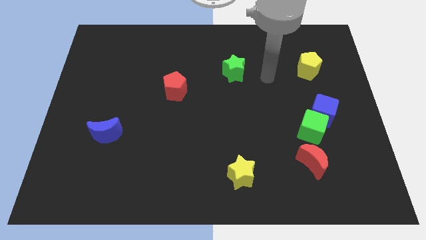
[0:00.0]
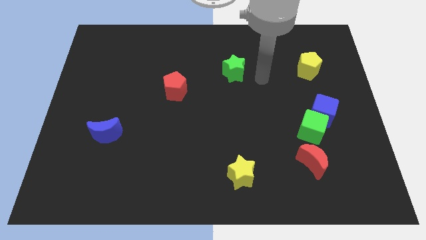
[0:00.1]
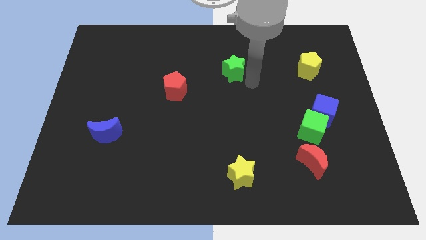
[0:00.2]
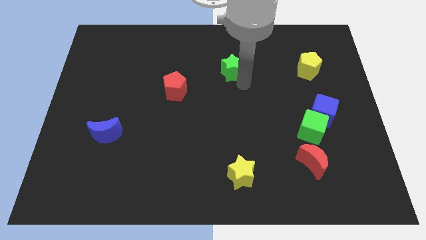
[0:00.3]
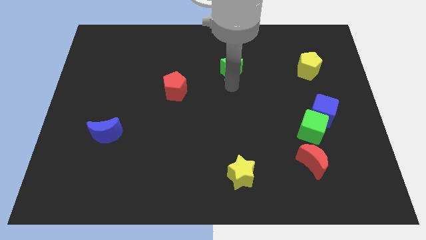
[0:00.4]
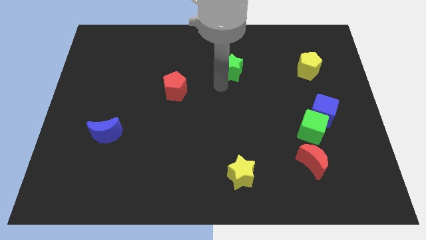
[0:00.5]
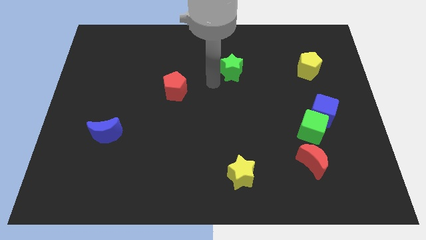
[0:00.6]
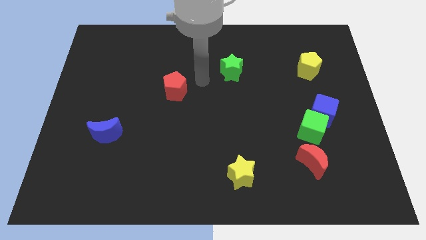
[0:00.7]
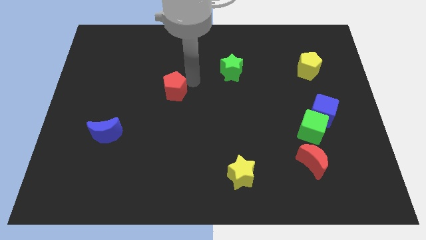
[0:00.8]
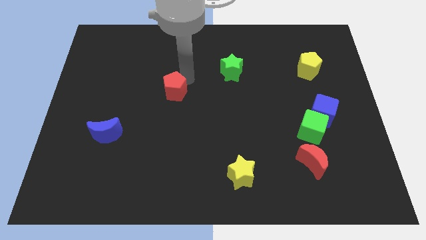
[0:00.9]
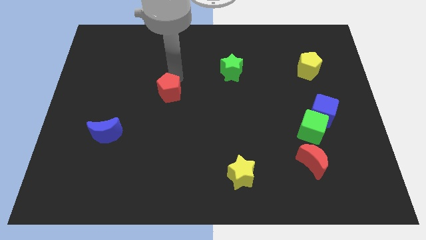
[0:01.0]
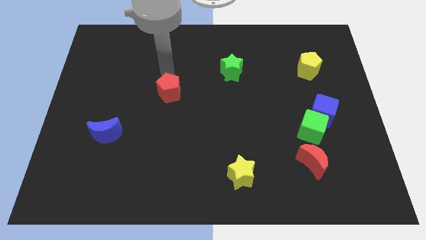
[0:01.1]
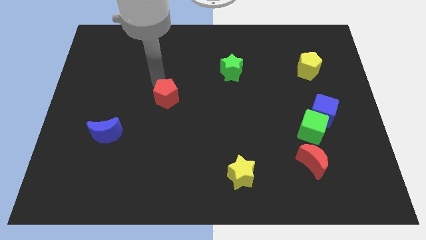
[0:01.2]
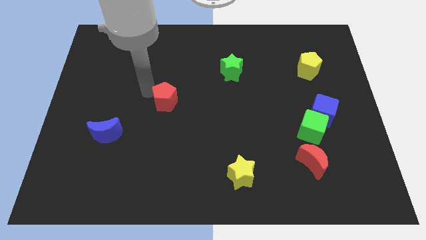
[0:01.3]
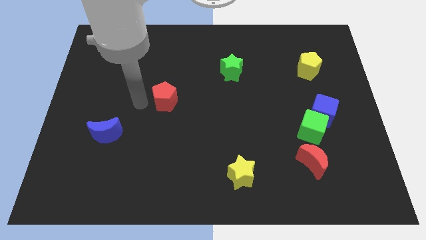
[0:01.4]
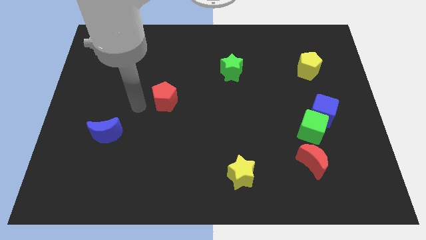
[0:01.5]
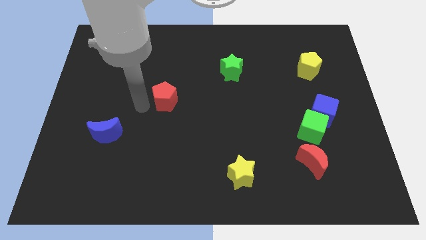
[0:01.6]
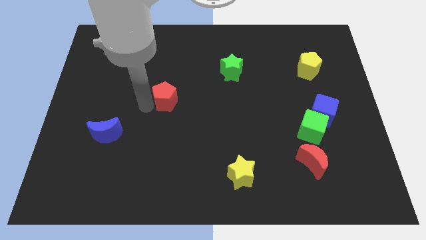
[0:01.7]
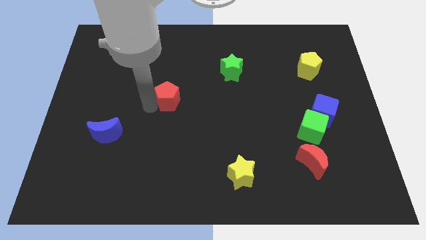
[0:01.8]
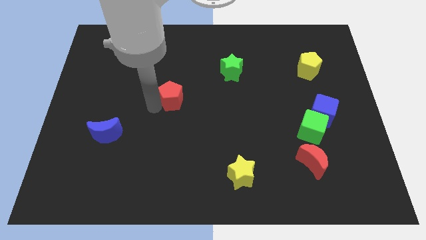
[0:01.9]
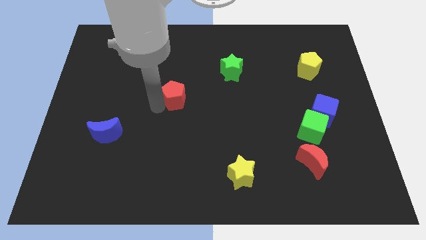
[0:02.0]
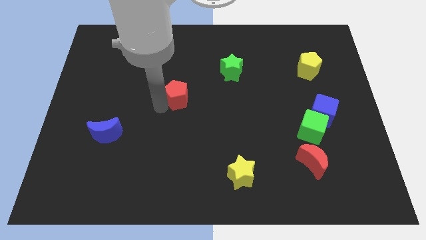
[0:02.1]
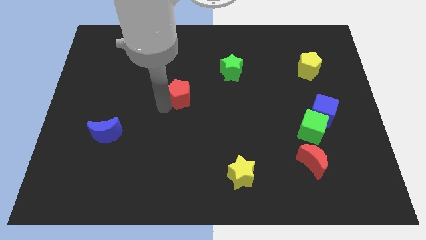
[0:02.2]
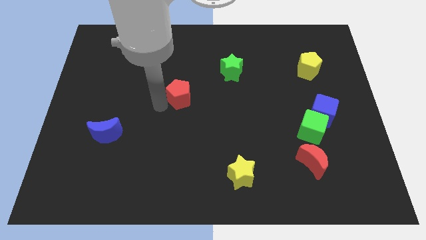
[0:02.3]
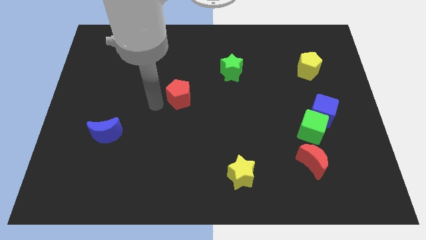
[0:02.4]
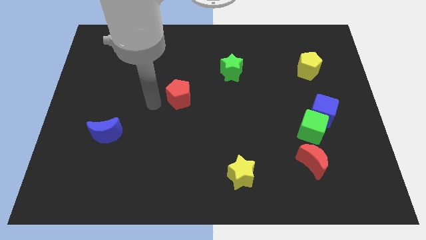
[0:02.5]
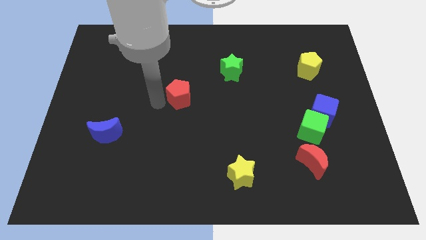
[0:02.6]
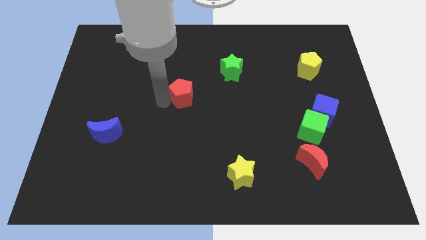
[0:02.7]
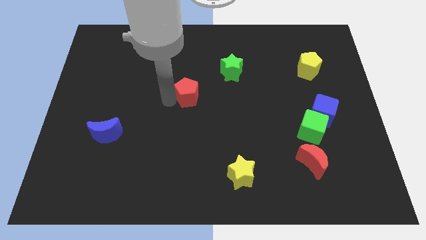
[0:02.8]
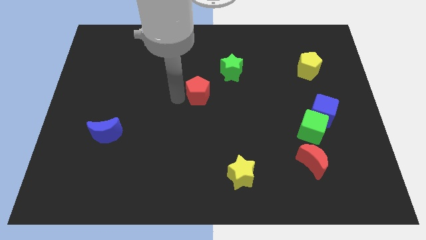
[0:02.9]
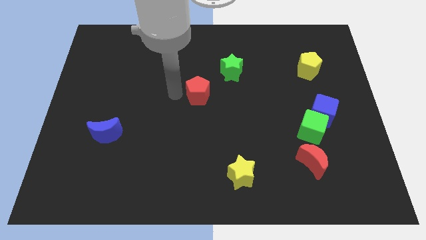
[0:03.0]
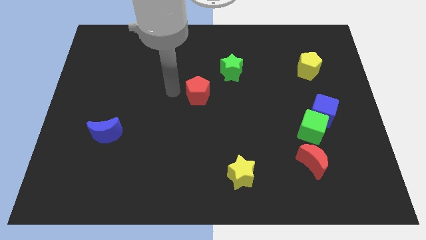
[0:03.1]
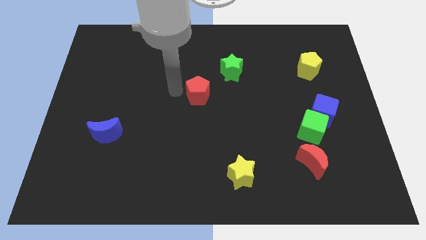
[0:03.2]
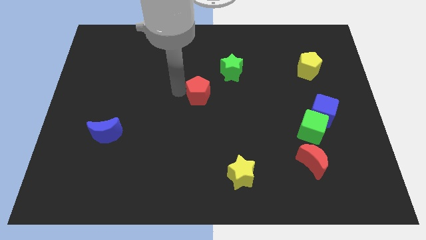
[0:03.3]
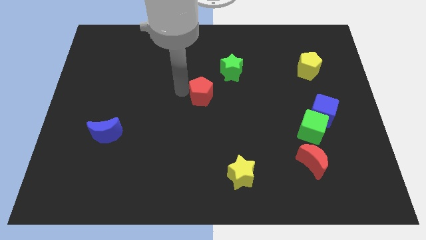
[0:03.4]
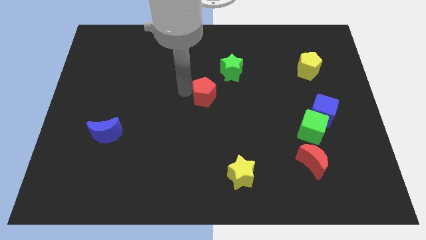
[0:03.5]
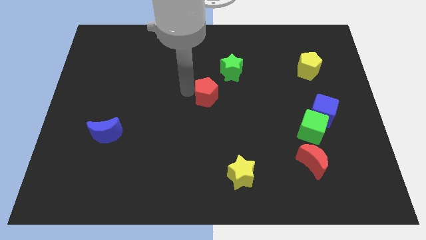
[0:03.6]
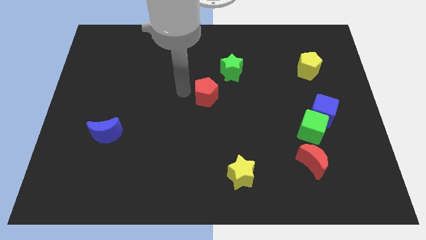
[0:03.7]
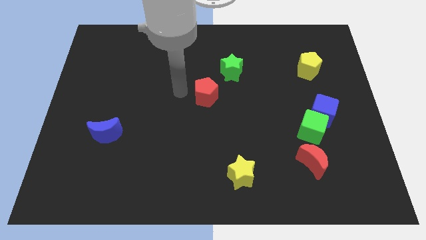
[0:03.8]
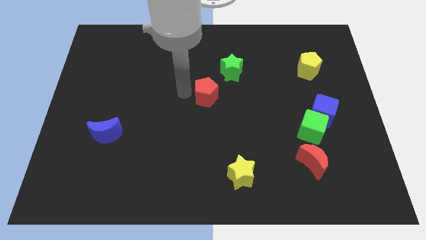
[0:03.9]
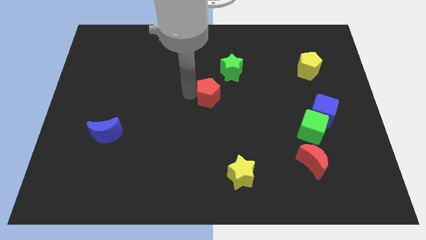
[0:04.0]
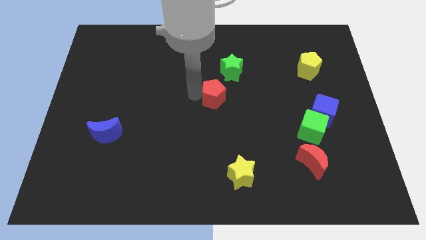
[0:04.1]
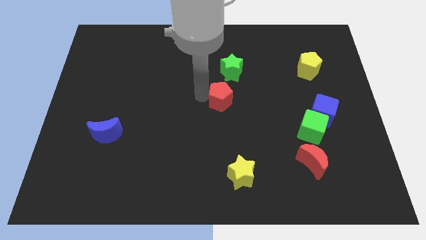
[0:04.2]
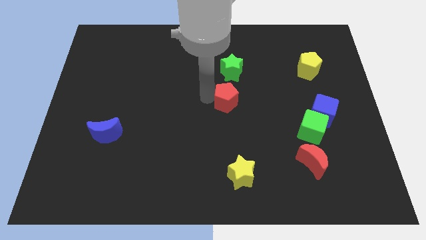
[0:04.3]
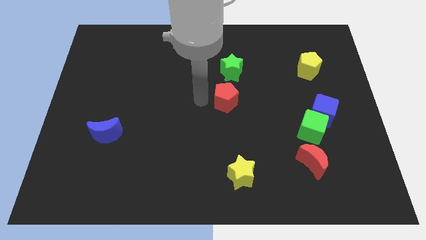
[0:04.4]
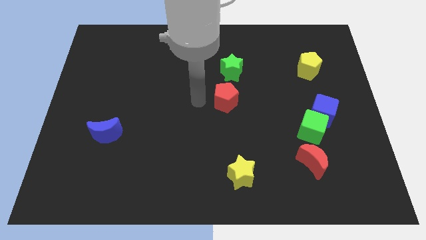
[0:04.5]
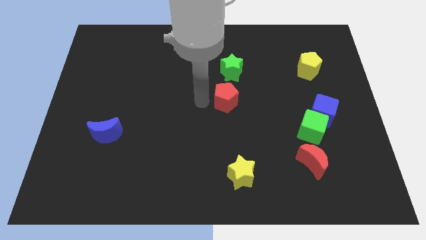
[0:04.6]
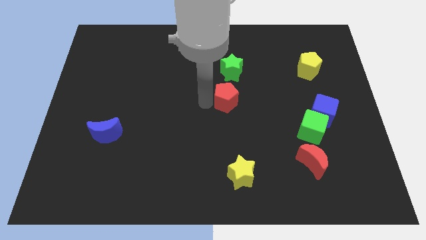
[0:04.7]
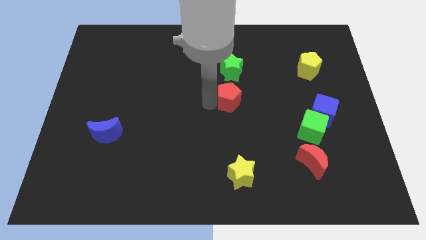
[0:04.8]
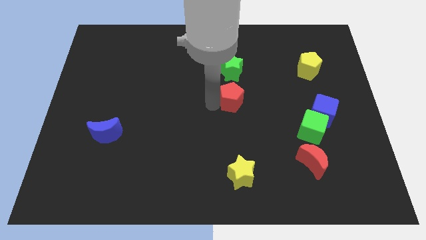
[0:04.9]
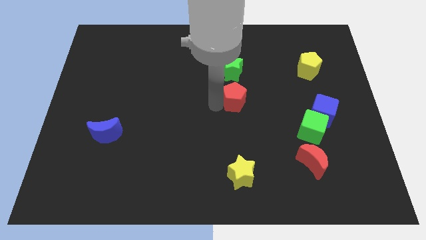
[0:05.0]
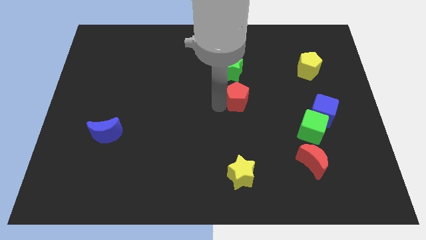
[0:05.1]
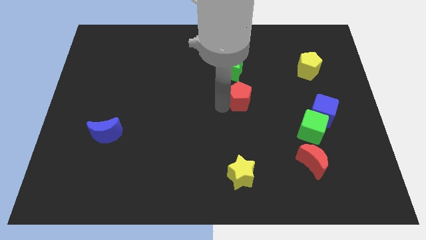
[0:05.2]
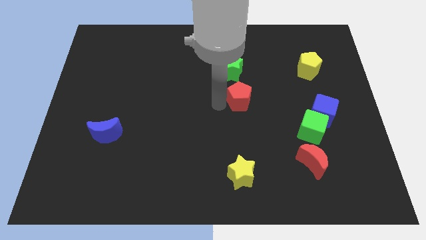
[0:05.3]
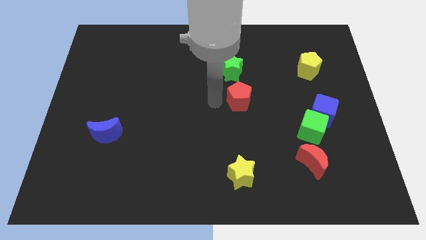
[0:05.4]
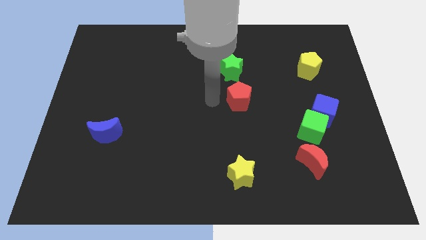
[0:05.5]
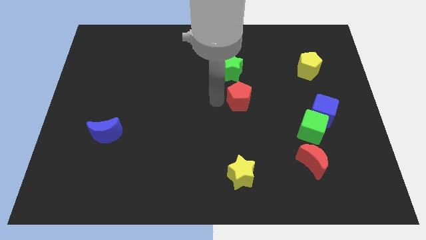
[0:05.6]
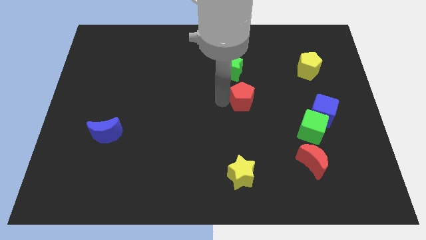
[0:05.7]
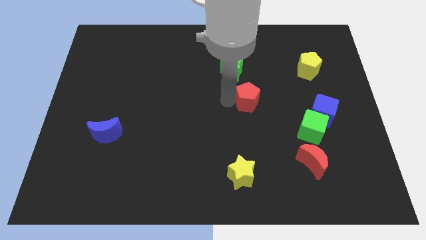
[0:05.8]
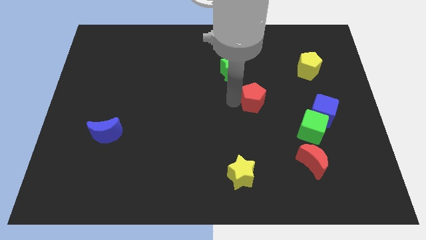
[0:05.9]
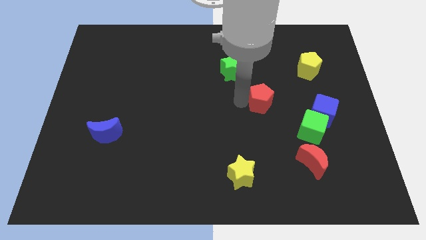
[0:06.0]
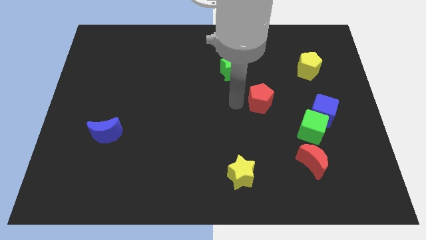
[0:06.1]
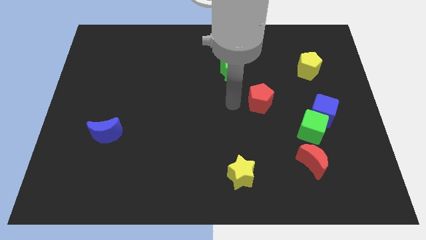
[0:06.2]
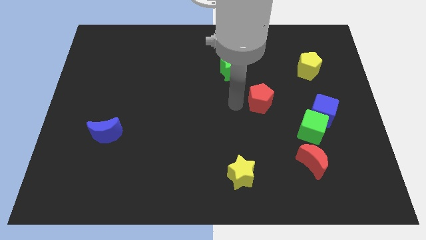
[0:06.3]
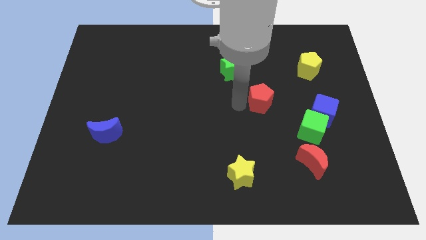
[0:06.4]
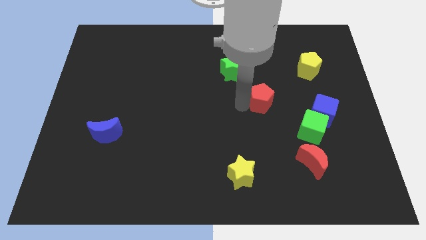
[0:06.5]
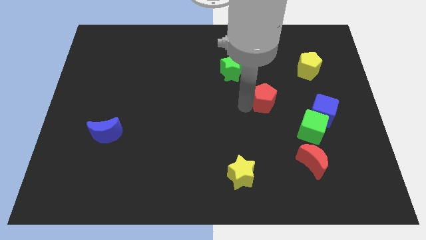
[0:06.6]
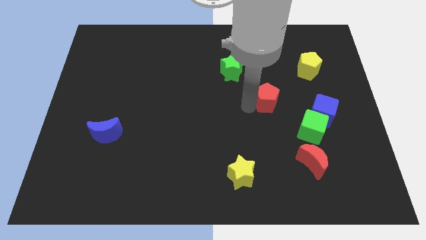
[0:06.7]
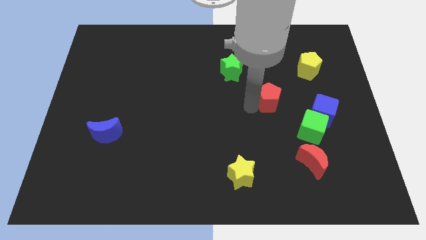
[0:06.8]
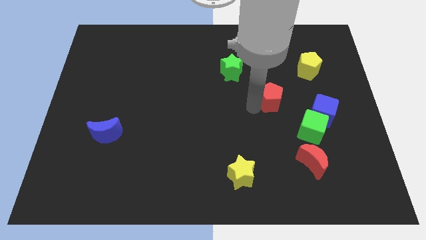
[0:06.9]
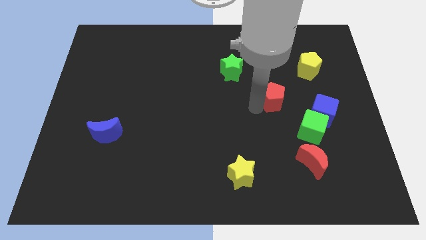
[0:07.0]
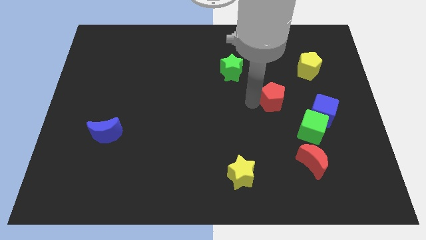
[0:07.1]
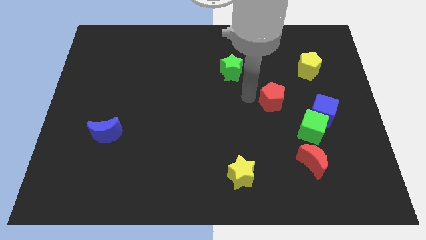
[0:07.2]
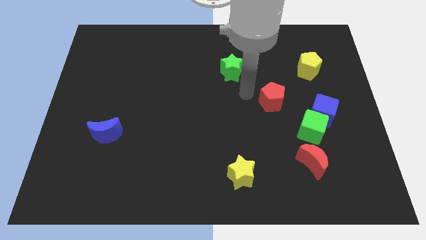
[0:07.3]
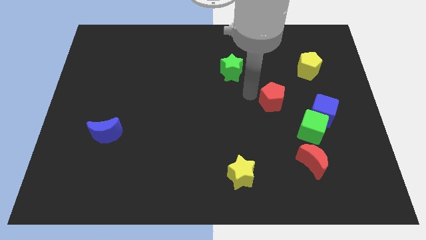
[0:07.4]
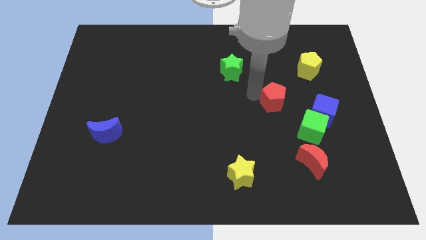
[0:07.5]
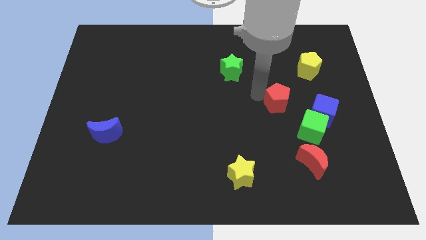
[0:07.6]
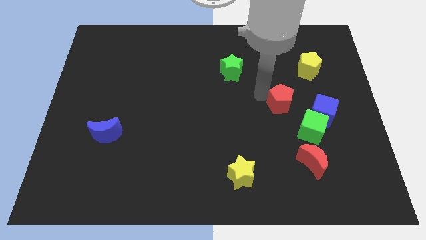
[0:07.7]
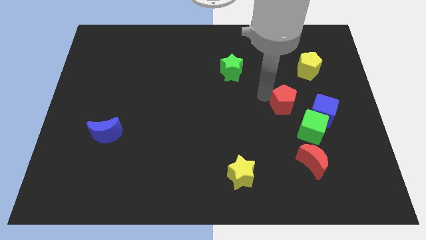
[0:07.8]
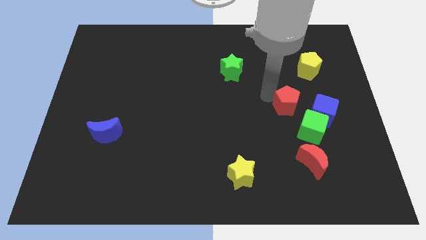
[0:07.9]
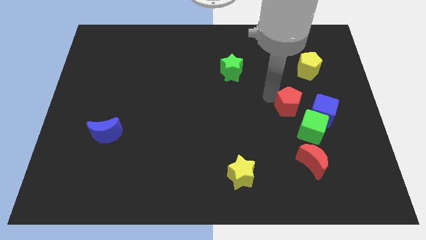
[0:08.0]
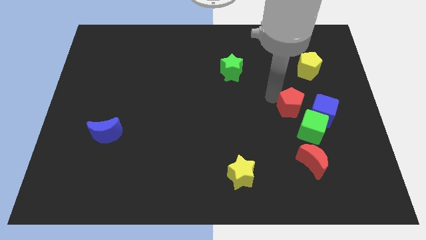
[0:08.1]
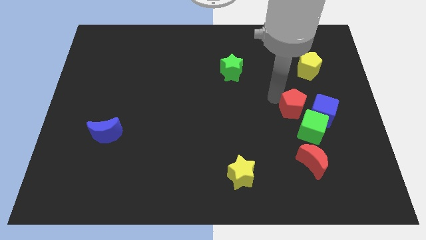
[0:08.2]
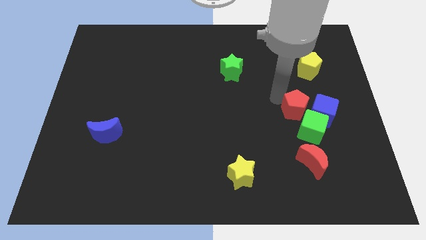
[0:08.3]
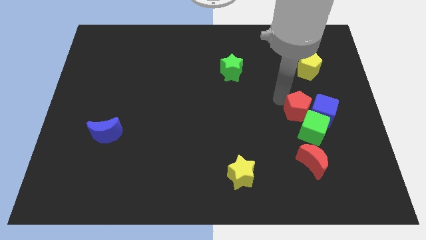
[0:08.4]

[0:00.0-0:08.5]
move the red pentagon close to the blue cube
